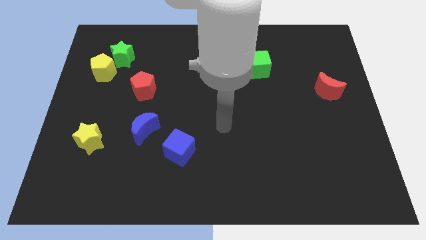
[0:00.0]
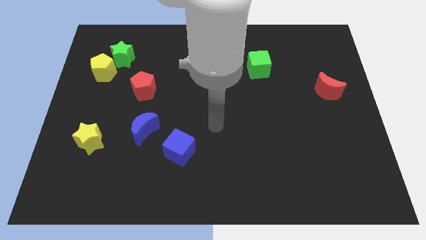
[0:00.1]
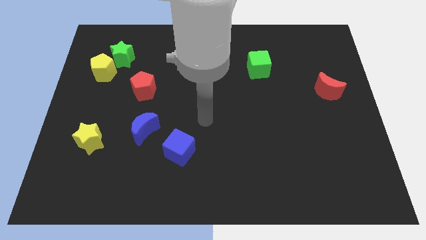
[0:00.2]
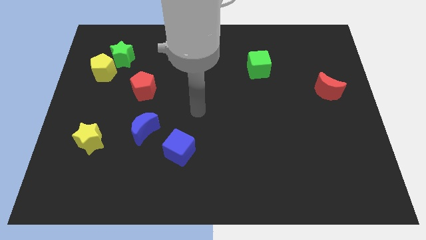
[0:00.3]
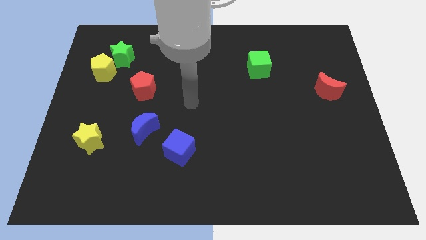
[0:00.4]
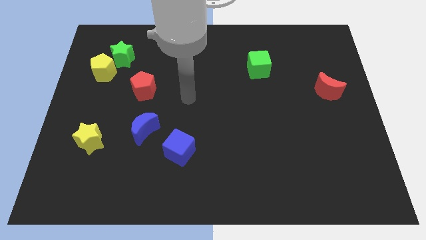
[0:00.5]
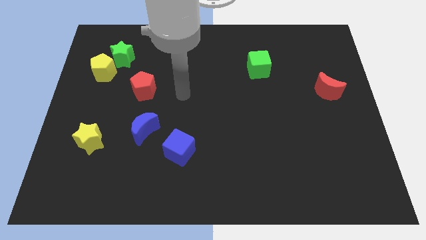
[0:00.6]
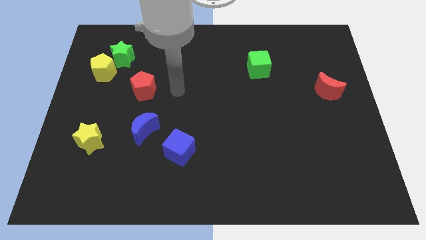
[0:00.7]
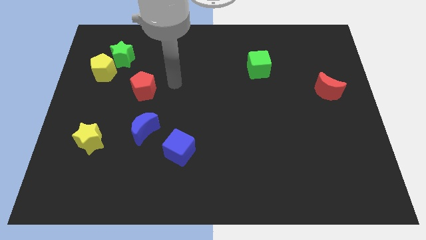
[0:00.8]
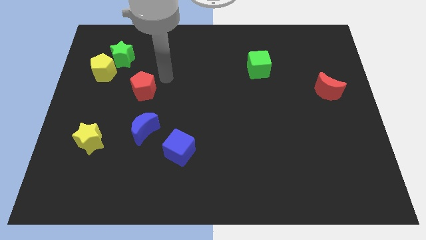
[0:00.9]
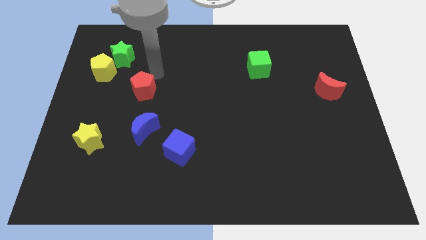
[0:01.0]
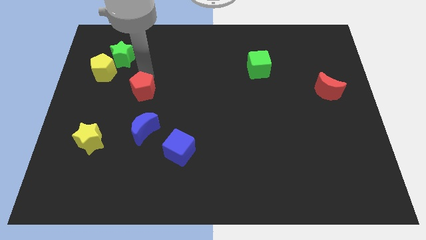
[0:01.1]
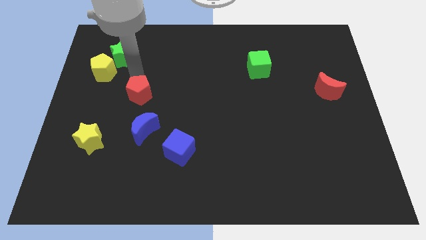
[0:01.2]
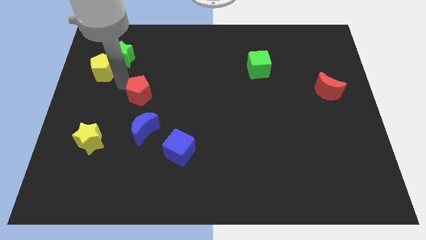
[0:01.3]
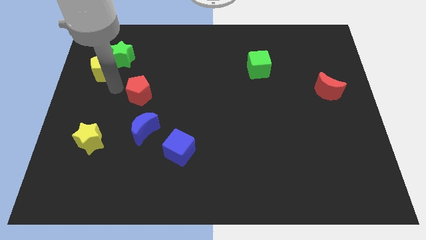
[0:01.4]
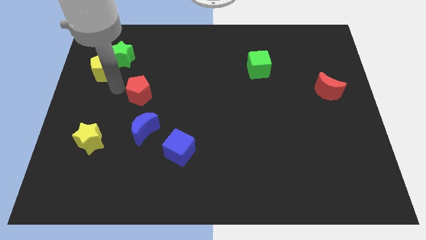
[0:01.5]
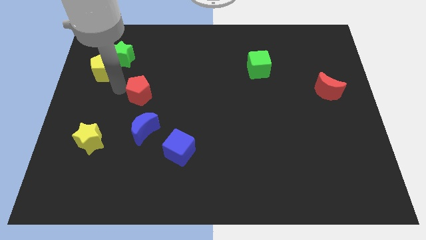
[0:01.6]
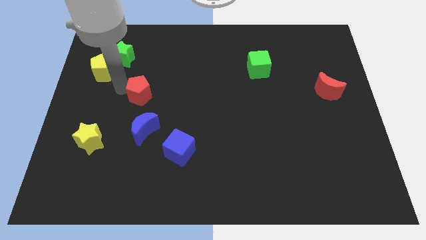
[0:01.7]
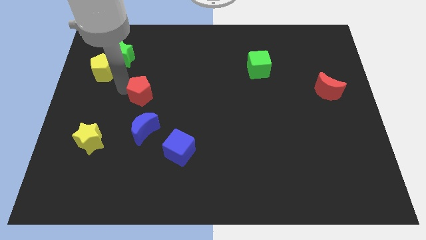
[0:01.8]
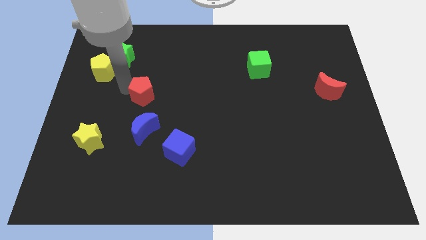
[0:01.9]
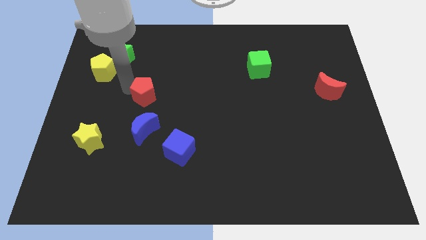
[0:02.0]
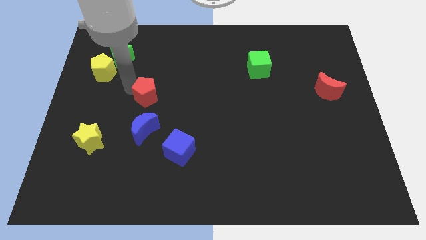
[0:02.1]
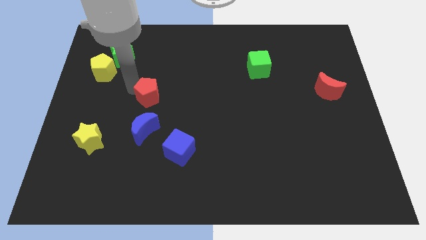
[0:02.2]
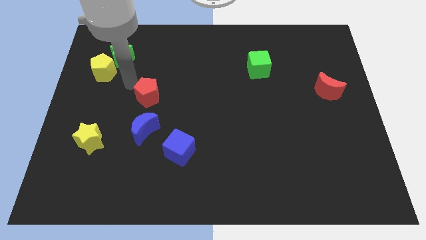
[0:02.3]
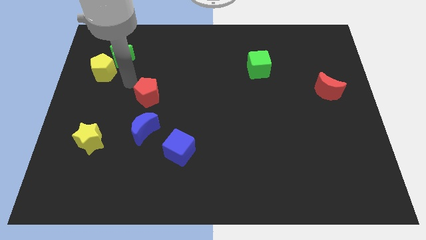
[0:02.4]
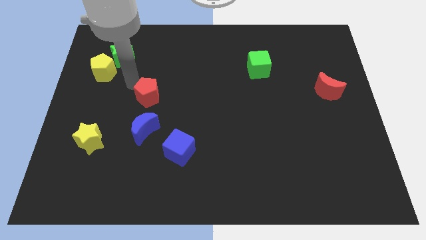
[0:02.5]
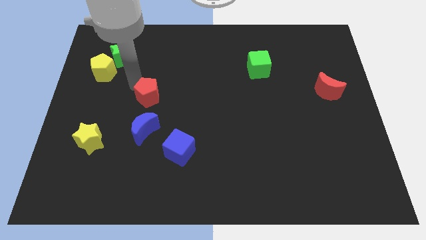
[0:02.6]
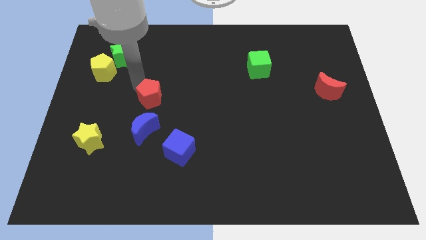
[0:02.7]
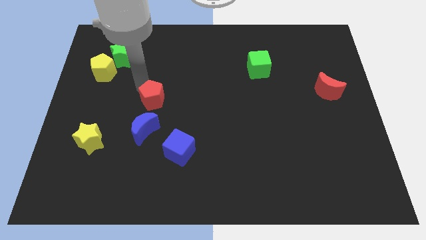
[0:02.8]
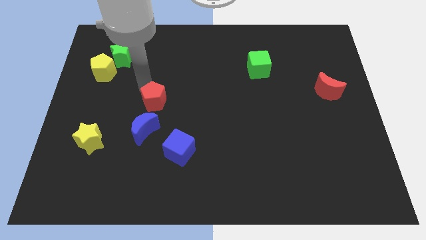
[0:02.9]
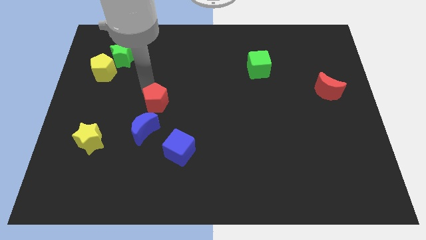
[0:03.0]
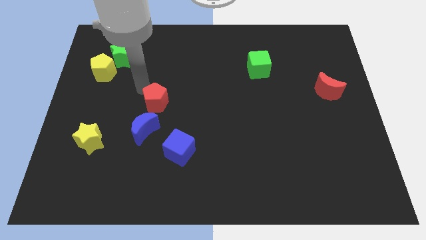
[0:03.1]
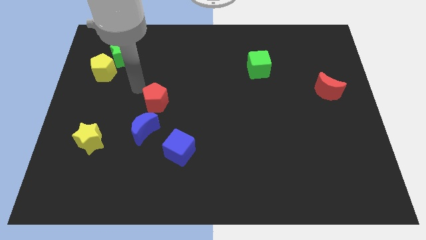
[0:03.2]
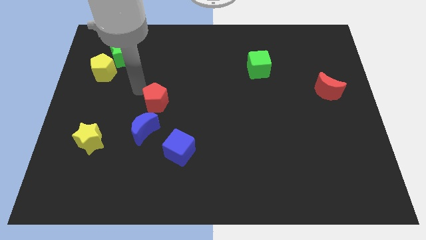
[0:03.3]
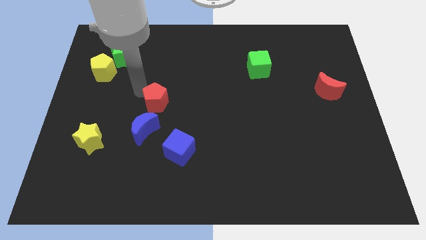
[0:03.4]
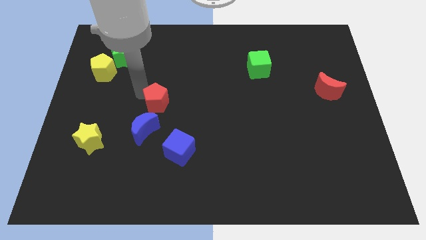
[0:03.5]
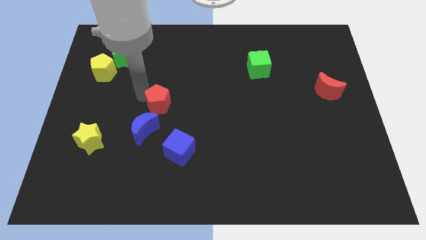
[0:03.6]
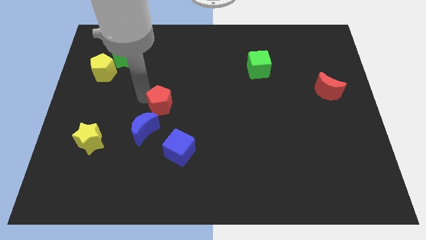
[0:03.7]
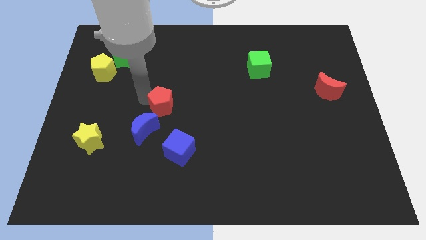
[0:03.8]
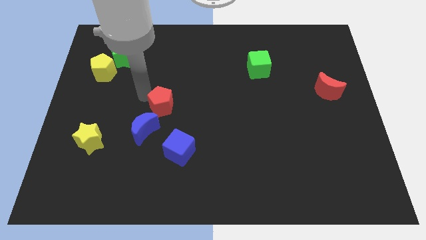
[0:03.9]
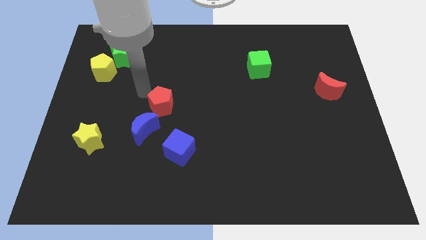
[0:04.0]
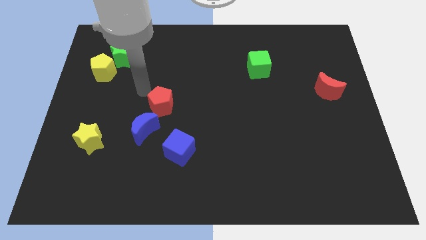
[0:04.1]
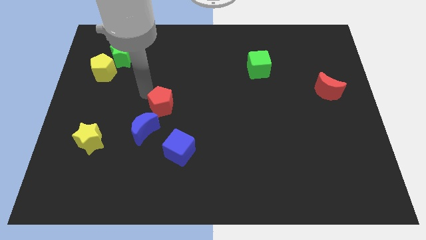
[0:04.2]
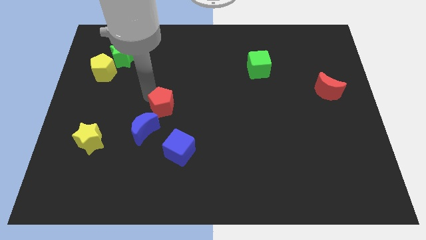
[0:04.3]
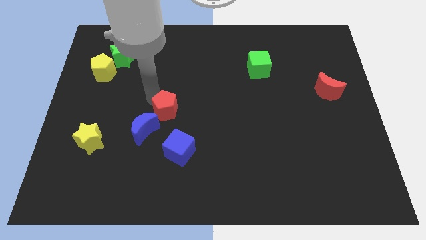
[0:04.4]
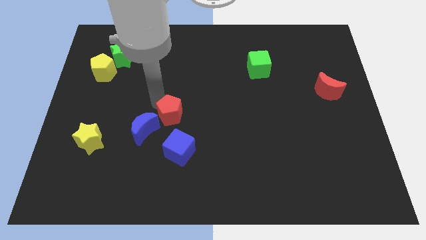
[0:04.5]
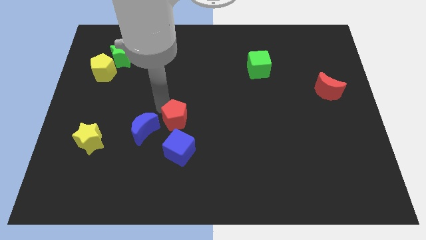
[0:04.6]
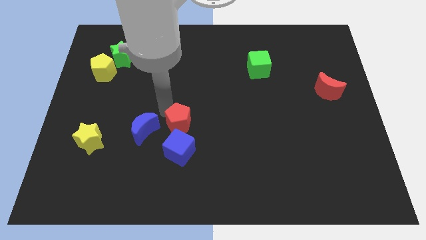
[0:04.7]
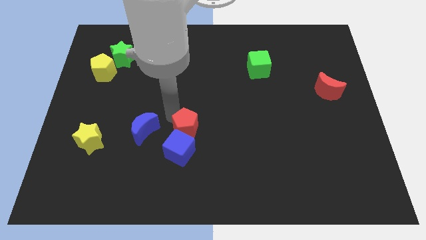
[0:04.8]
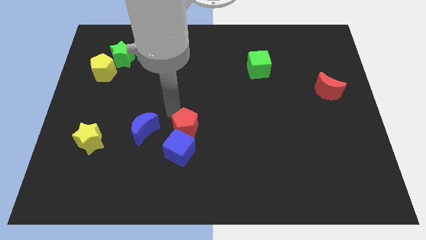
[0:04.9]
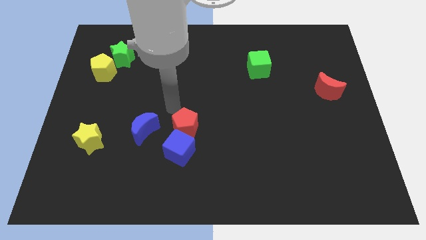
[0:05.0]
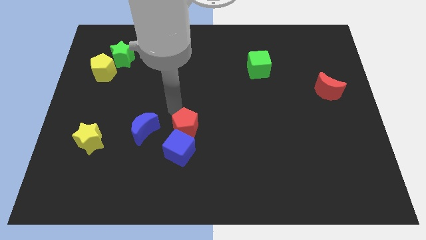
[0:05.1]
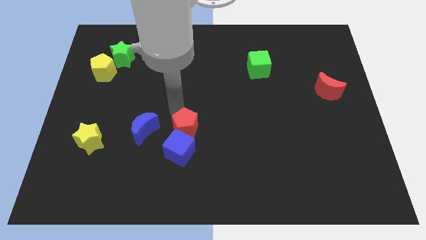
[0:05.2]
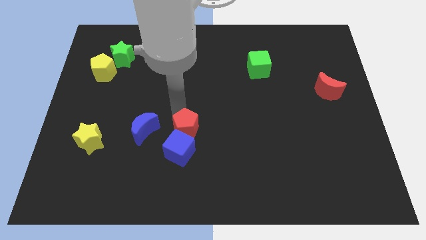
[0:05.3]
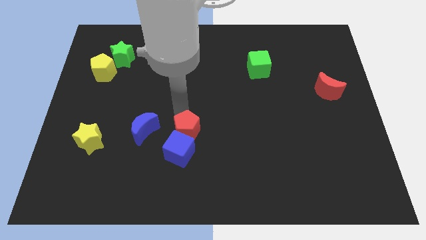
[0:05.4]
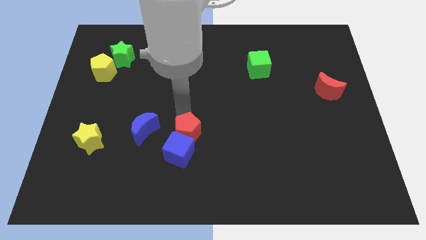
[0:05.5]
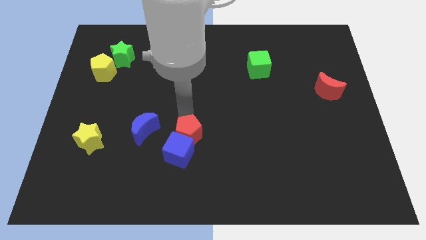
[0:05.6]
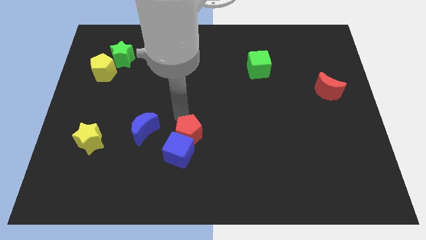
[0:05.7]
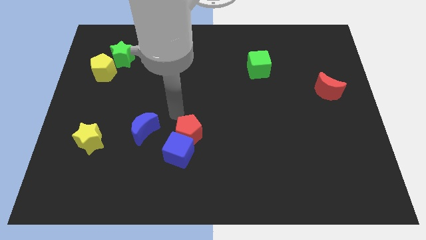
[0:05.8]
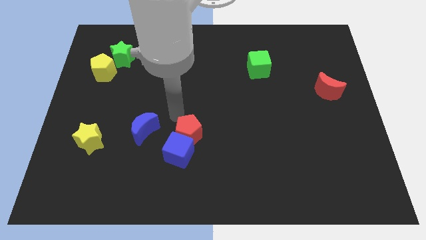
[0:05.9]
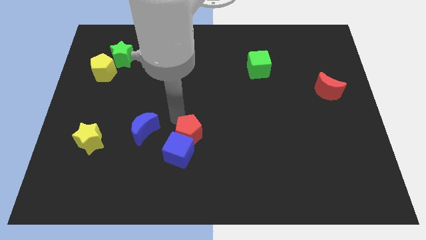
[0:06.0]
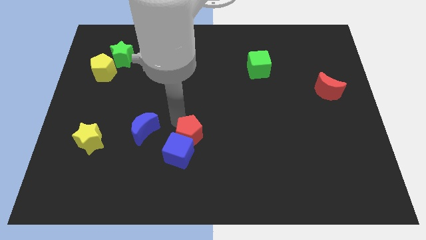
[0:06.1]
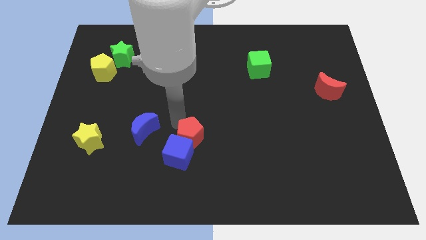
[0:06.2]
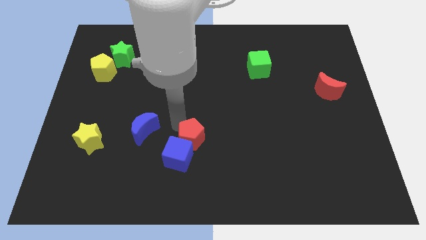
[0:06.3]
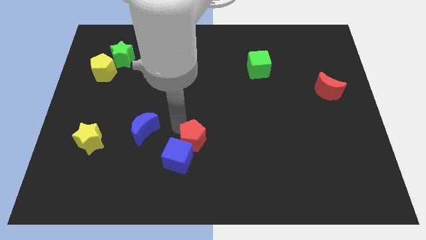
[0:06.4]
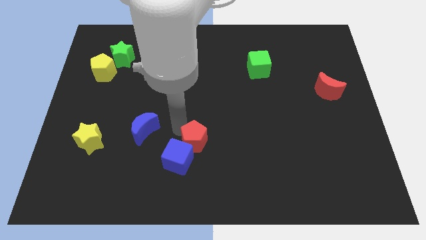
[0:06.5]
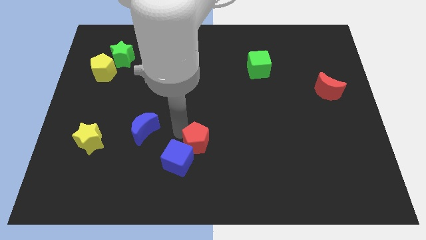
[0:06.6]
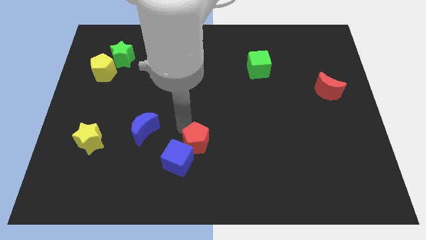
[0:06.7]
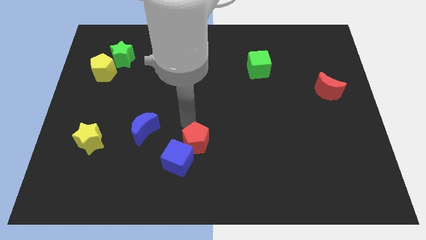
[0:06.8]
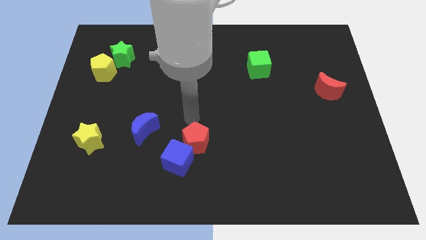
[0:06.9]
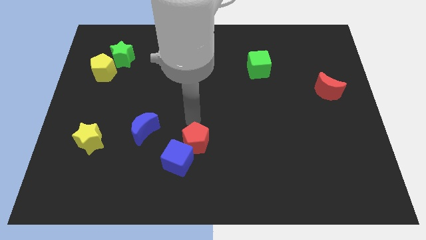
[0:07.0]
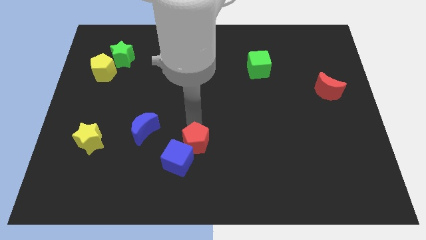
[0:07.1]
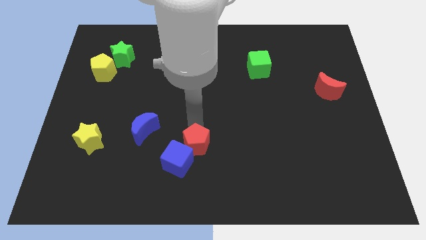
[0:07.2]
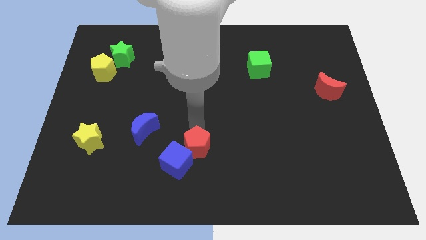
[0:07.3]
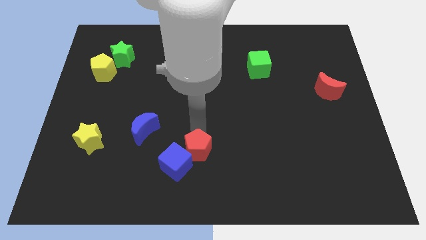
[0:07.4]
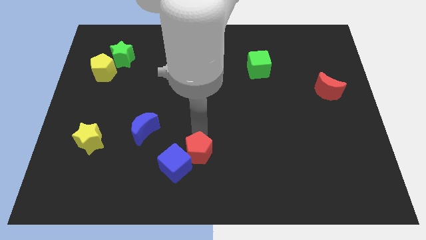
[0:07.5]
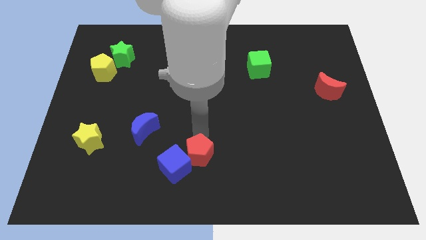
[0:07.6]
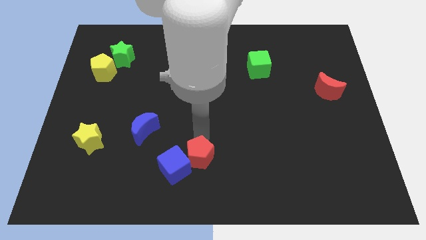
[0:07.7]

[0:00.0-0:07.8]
move the red pentagon to the bottom side
